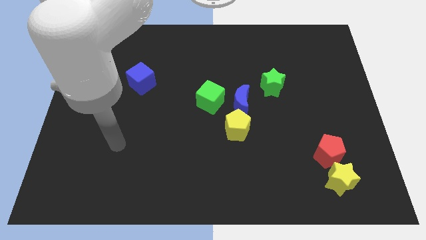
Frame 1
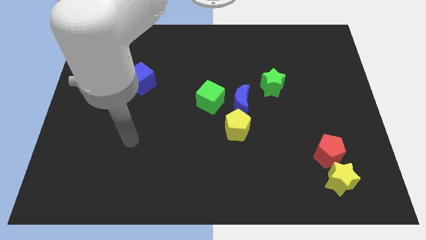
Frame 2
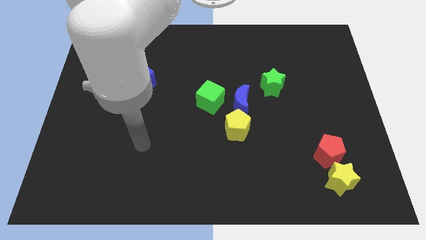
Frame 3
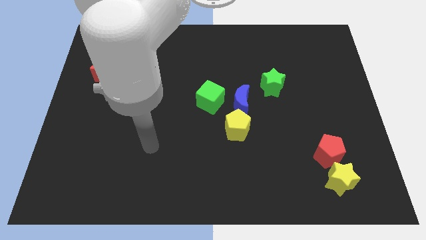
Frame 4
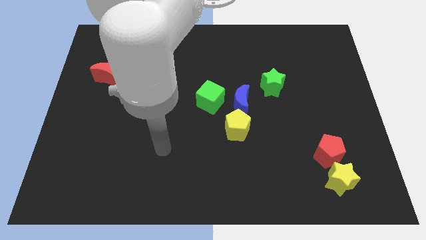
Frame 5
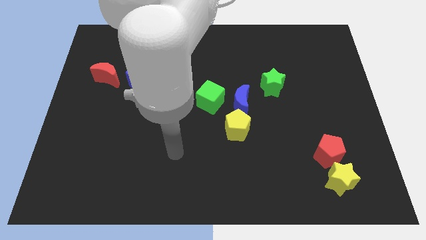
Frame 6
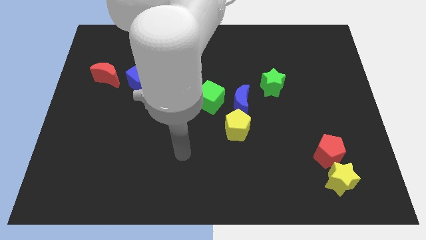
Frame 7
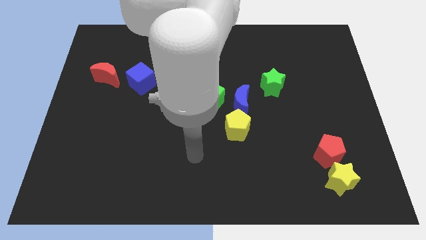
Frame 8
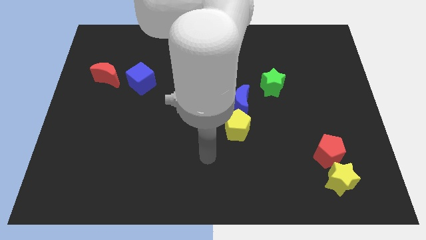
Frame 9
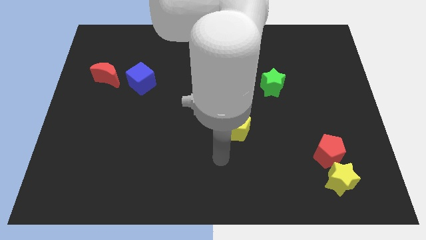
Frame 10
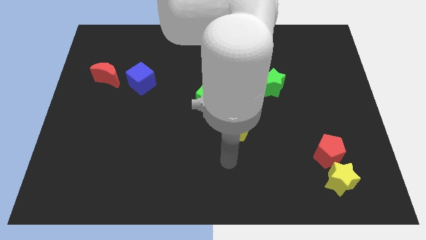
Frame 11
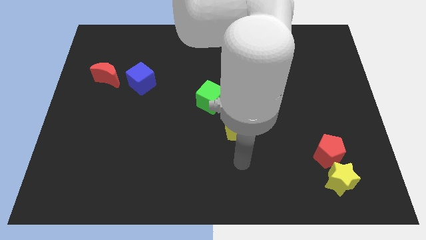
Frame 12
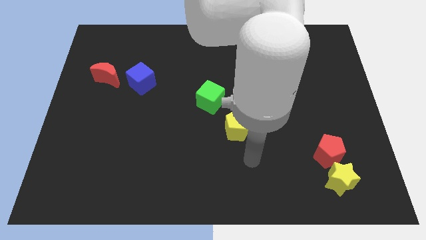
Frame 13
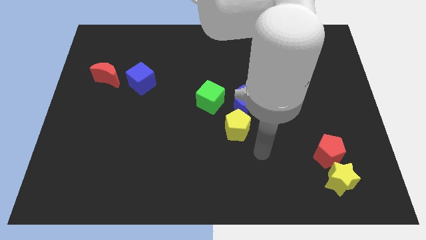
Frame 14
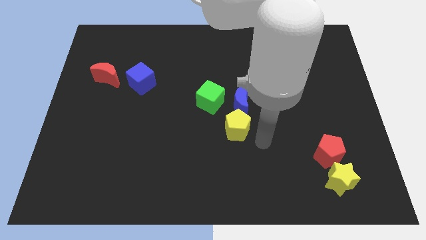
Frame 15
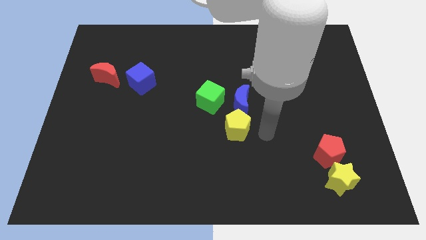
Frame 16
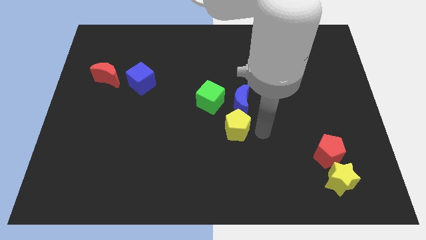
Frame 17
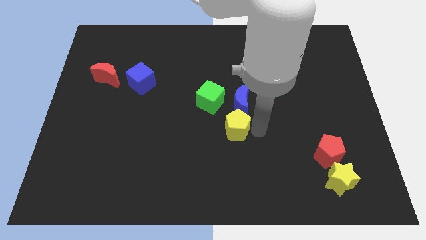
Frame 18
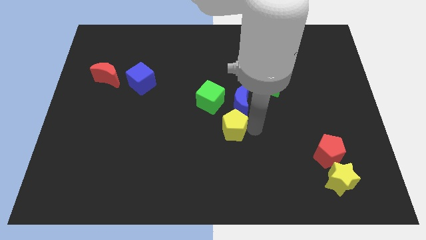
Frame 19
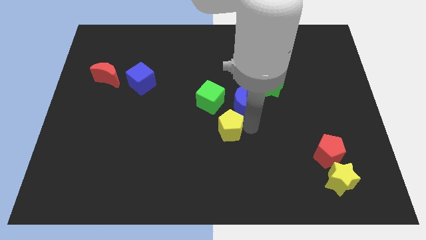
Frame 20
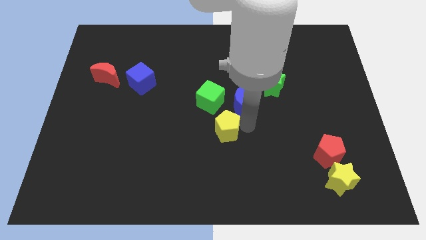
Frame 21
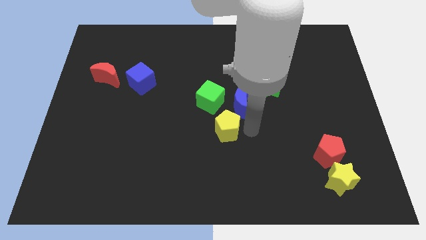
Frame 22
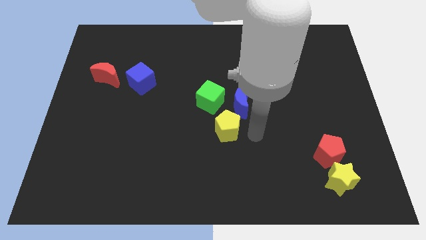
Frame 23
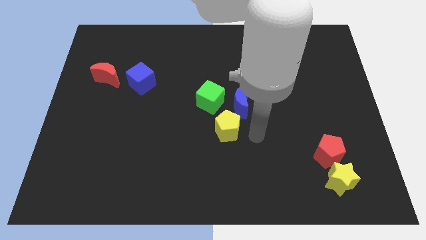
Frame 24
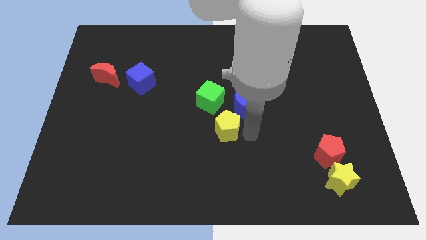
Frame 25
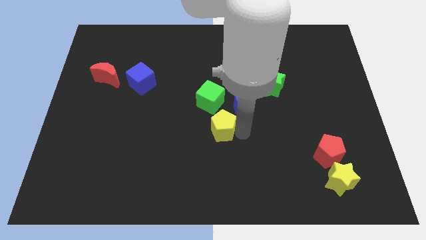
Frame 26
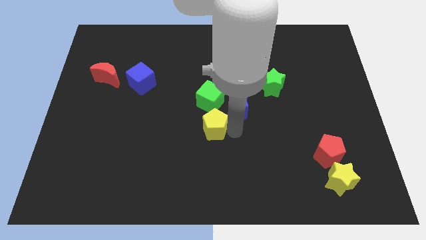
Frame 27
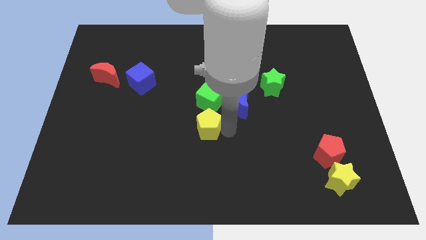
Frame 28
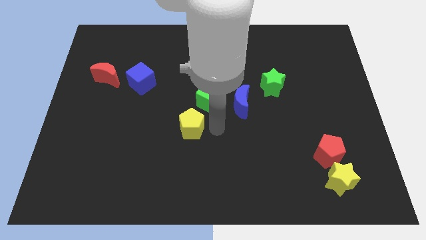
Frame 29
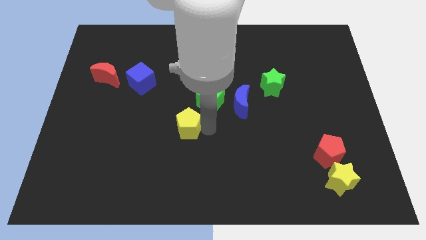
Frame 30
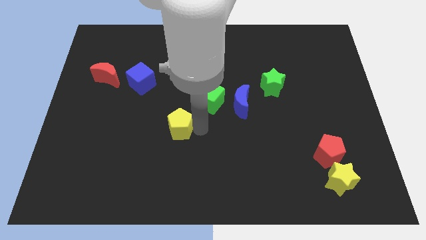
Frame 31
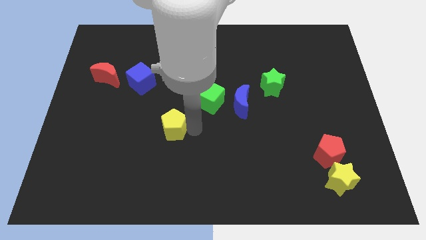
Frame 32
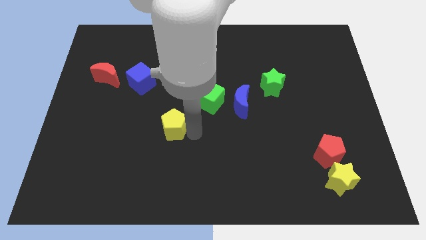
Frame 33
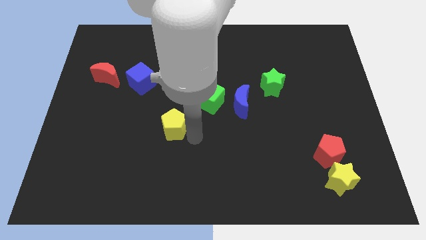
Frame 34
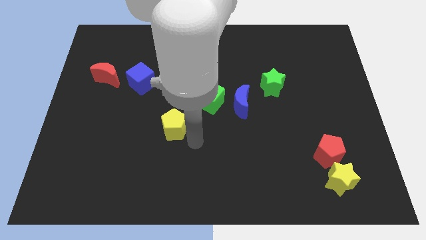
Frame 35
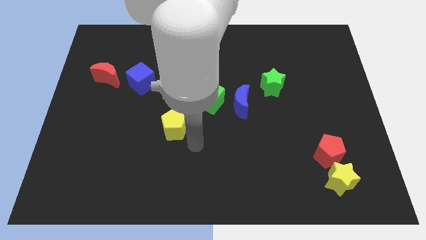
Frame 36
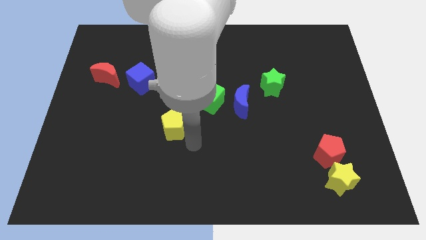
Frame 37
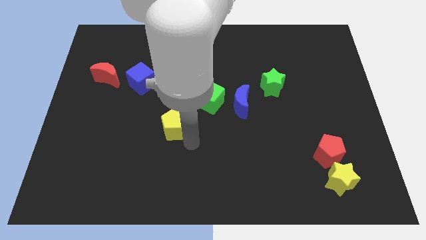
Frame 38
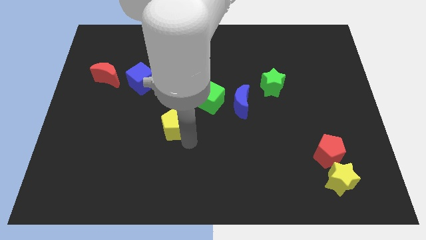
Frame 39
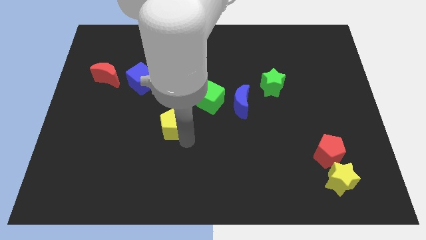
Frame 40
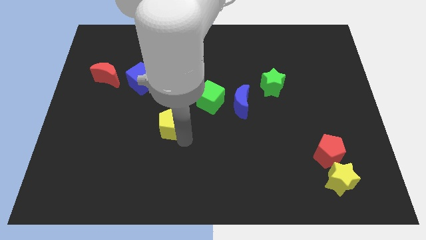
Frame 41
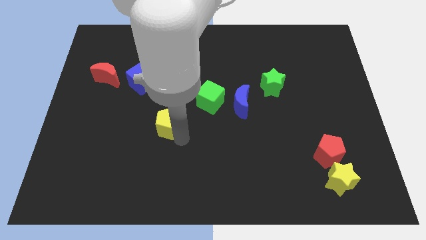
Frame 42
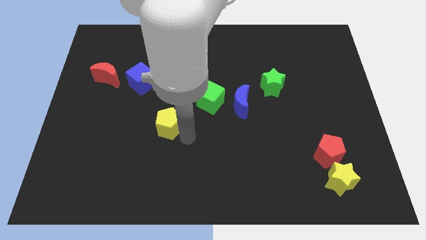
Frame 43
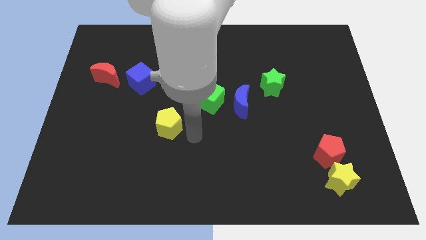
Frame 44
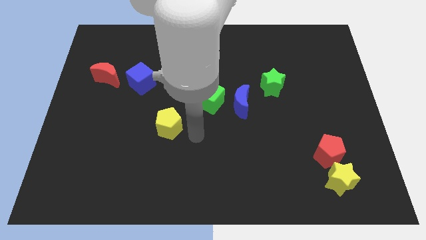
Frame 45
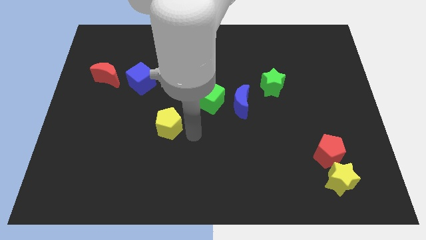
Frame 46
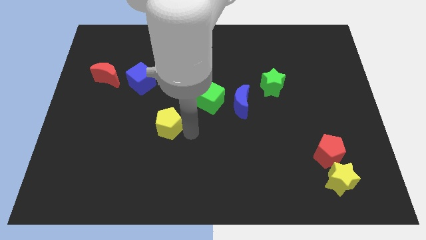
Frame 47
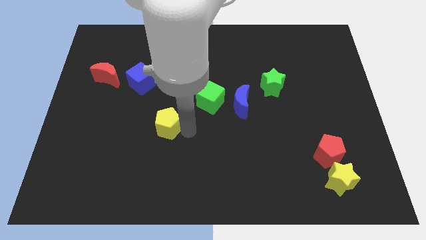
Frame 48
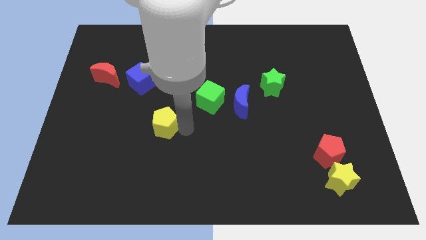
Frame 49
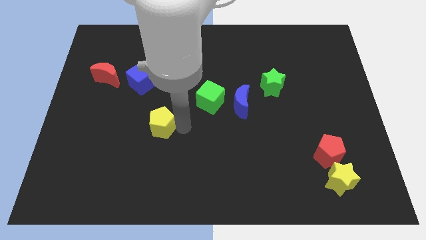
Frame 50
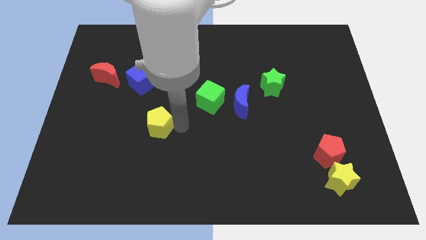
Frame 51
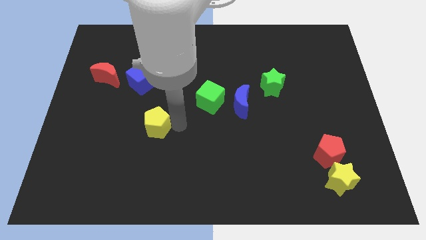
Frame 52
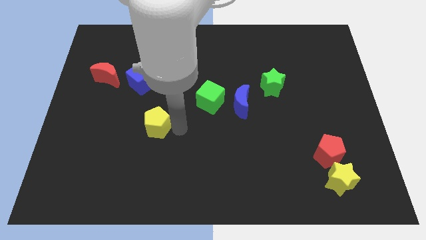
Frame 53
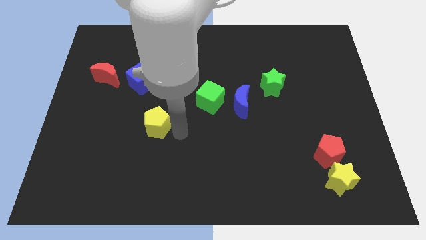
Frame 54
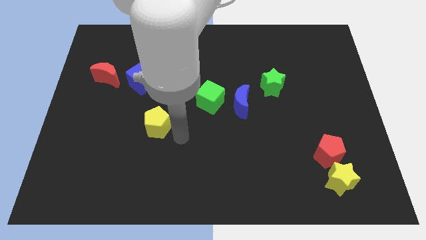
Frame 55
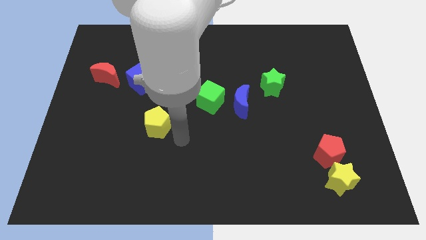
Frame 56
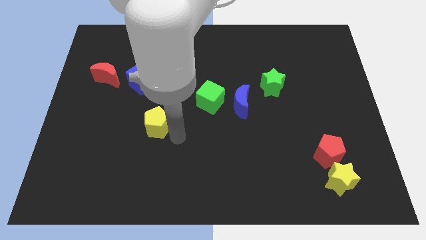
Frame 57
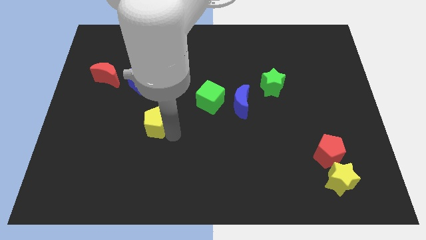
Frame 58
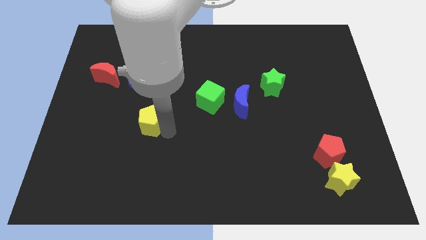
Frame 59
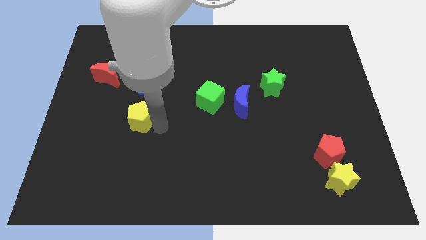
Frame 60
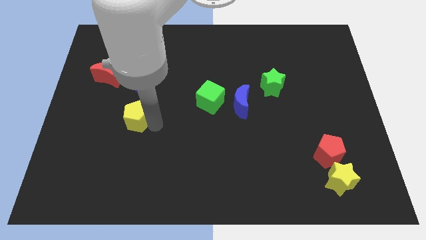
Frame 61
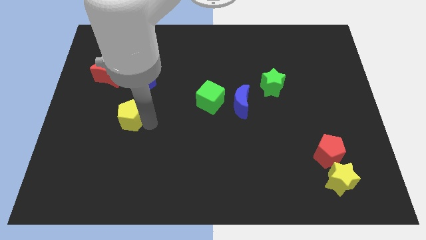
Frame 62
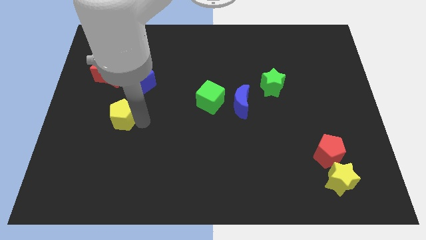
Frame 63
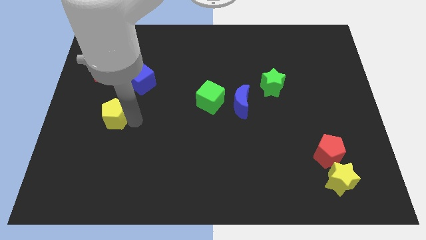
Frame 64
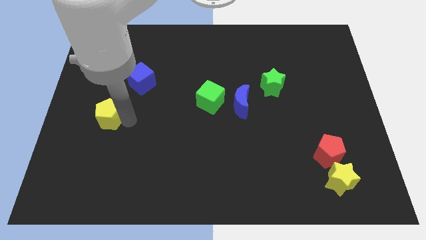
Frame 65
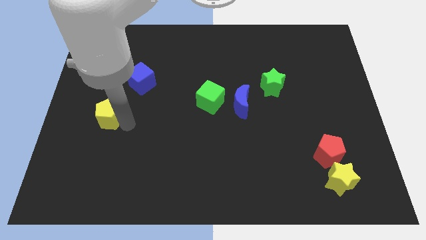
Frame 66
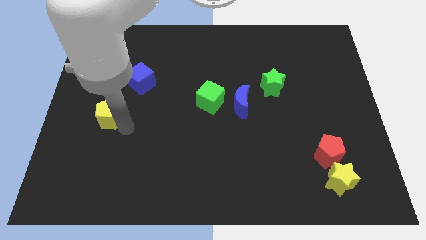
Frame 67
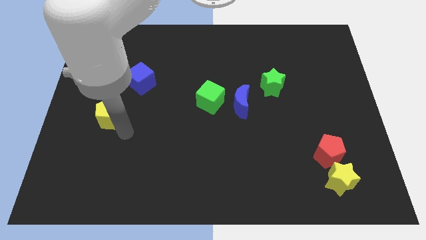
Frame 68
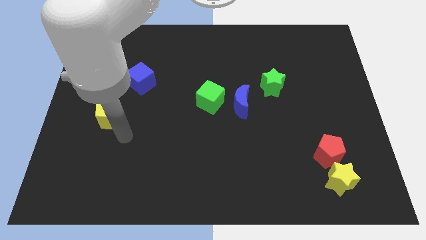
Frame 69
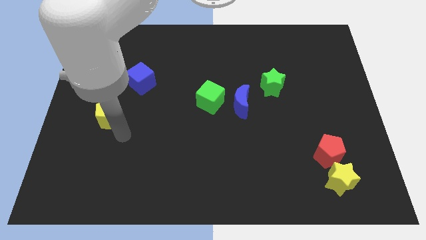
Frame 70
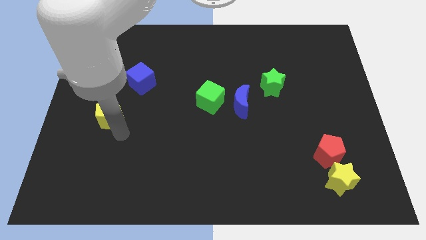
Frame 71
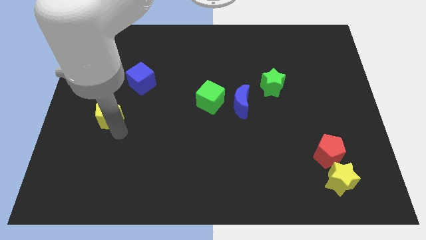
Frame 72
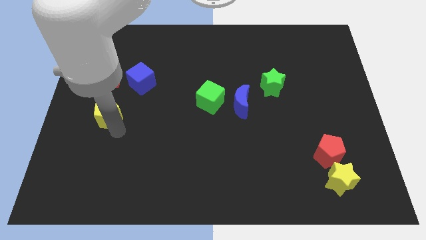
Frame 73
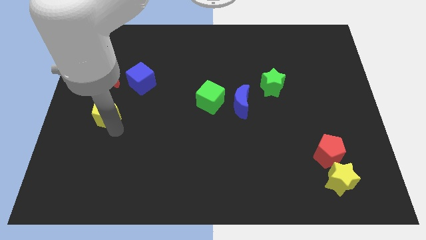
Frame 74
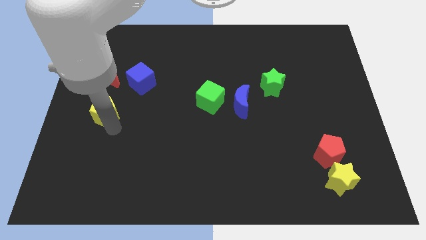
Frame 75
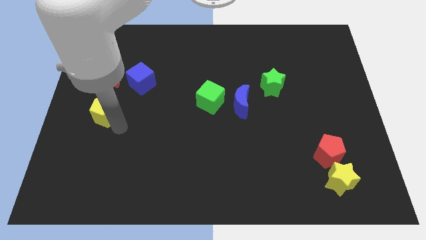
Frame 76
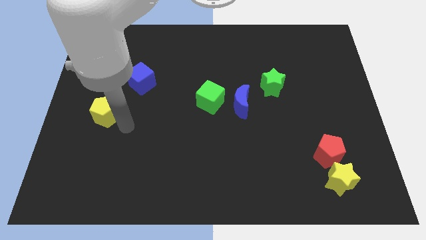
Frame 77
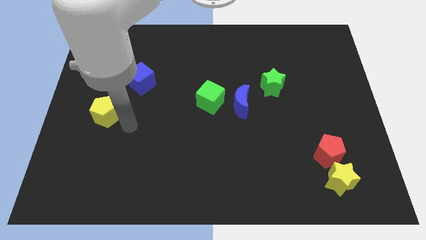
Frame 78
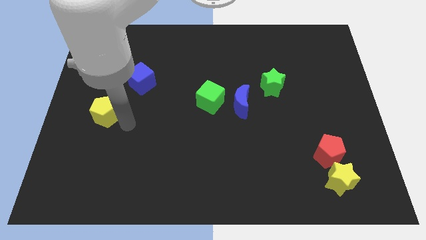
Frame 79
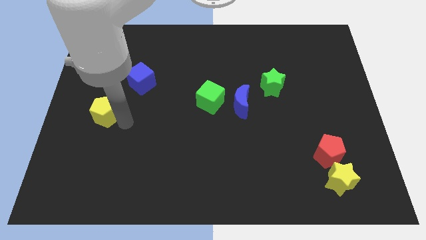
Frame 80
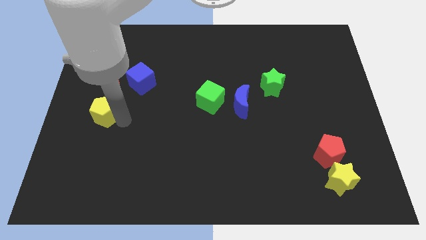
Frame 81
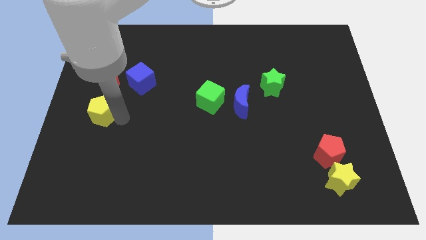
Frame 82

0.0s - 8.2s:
slide the yellow pentagon to the center left
